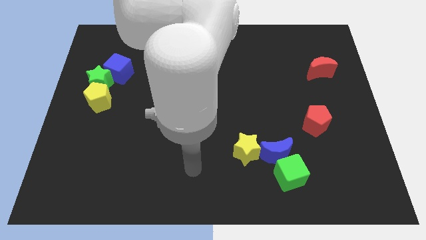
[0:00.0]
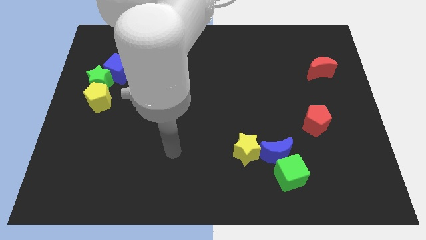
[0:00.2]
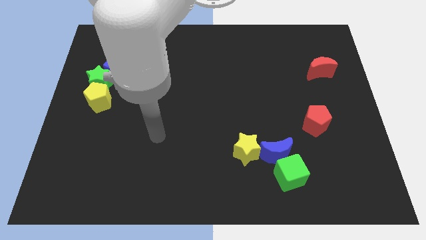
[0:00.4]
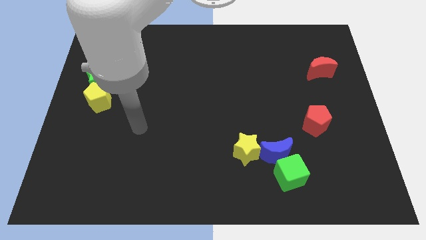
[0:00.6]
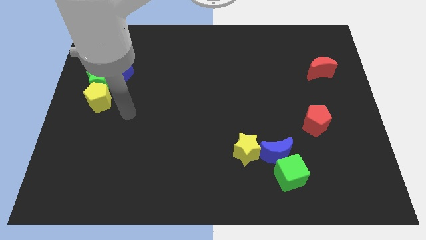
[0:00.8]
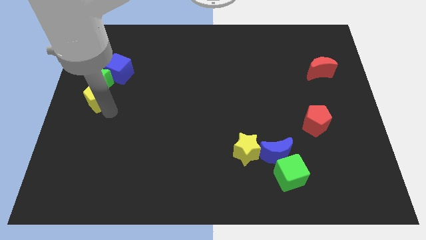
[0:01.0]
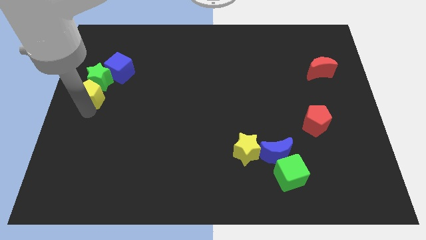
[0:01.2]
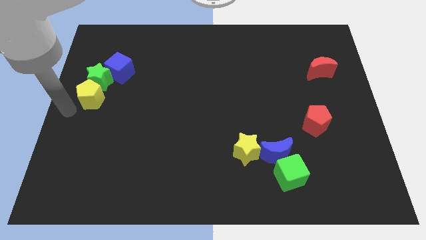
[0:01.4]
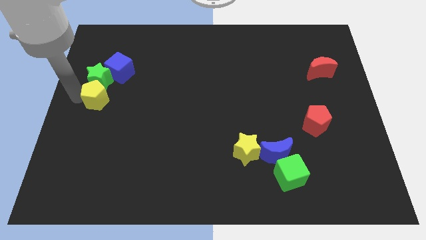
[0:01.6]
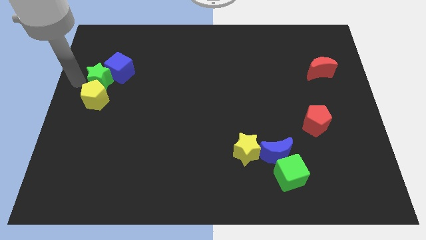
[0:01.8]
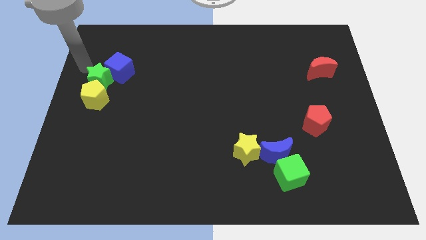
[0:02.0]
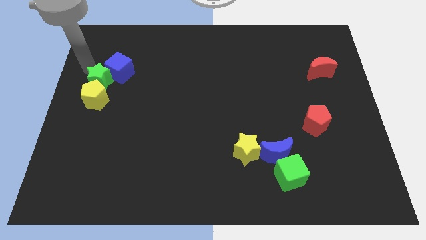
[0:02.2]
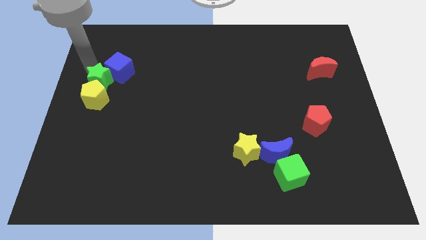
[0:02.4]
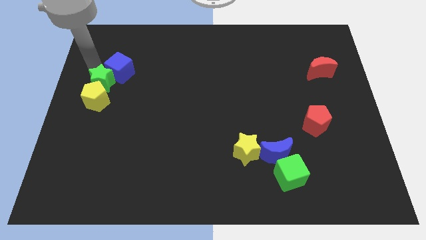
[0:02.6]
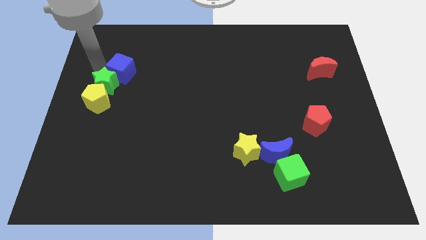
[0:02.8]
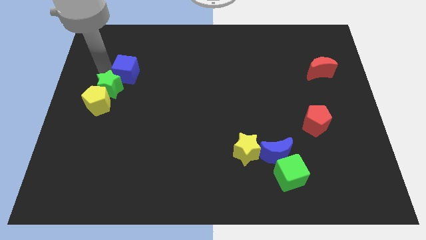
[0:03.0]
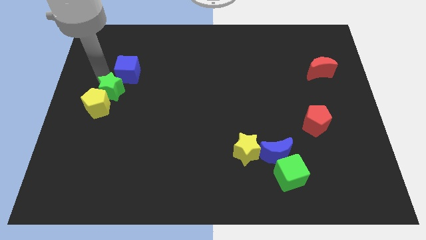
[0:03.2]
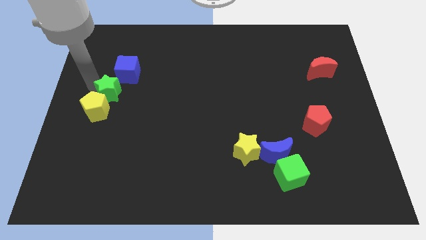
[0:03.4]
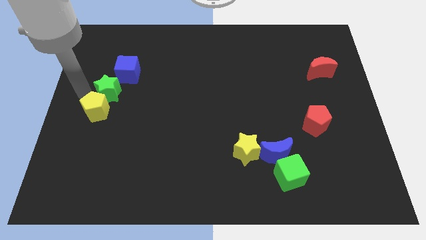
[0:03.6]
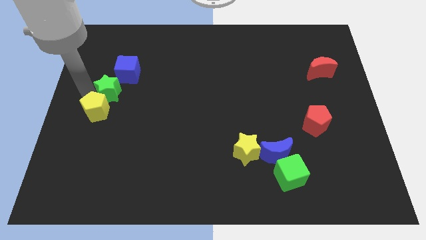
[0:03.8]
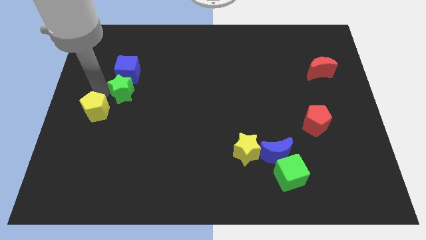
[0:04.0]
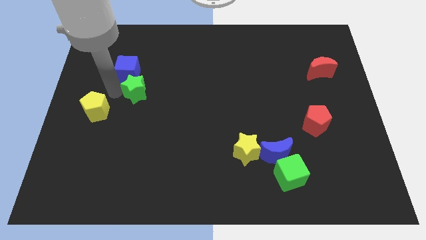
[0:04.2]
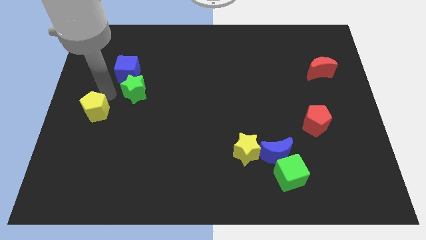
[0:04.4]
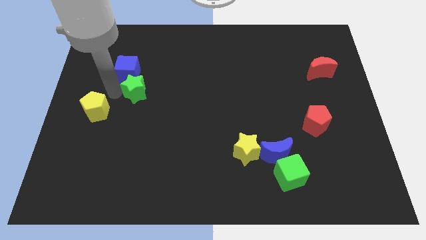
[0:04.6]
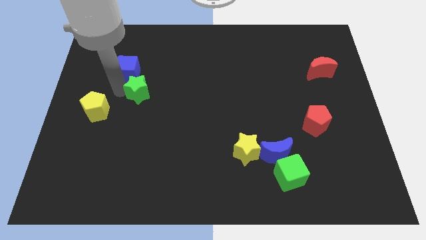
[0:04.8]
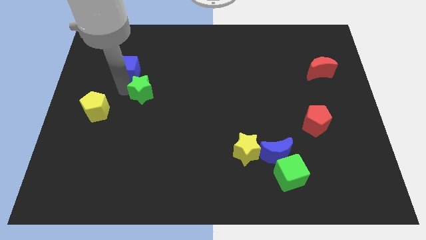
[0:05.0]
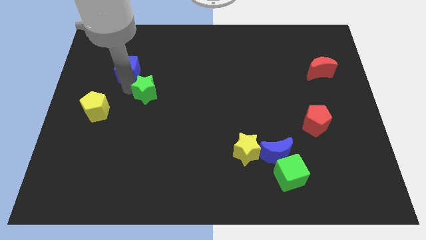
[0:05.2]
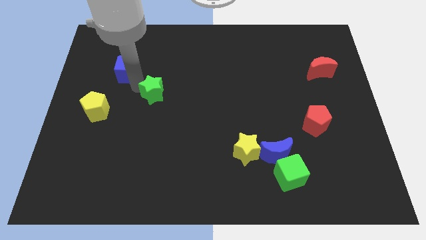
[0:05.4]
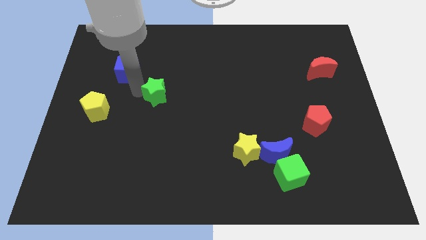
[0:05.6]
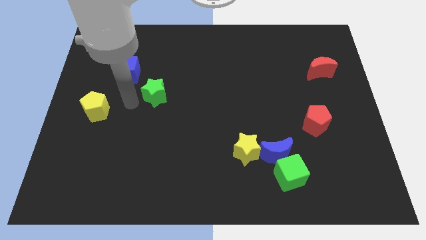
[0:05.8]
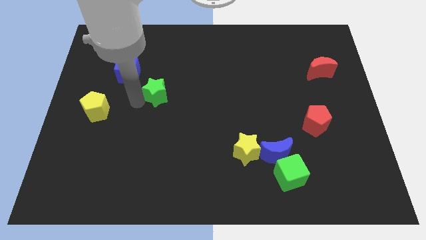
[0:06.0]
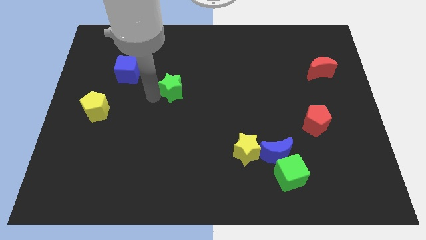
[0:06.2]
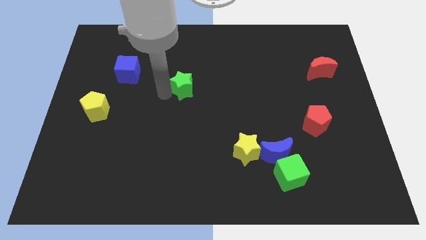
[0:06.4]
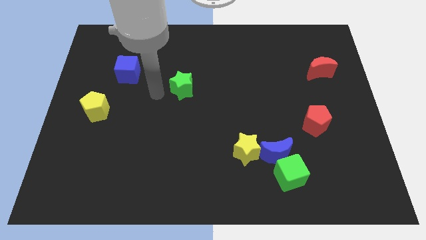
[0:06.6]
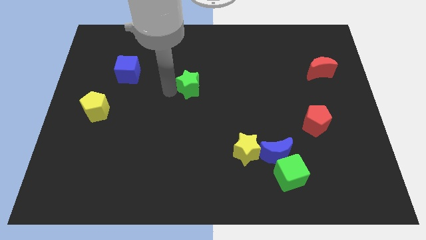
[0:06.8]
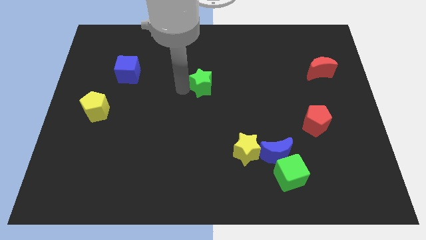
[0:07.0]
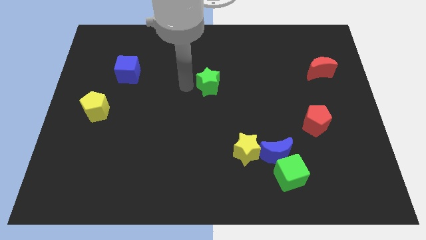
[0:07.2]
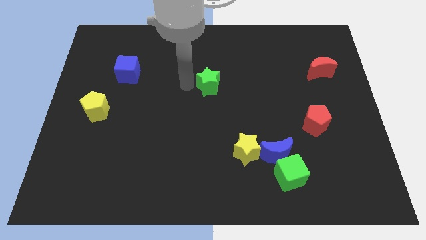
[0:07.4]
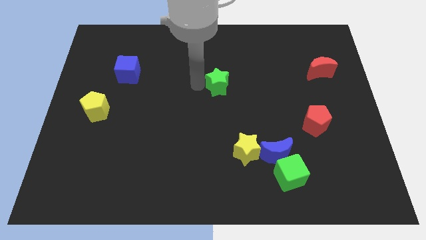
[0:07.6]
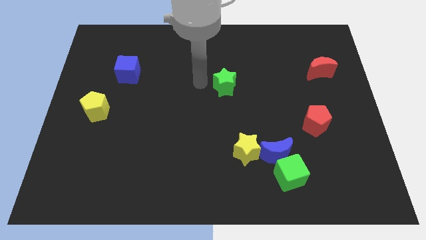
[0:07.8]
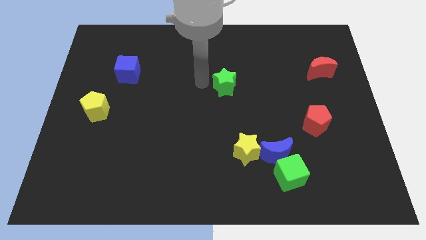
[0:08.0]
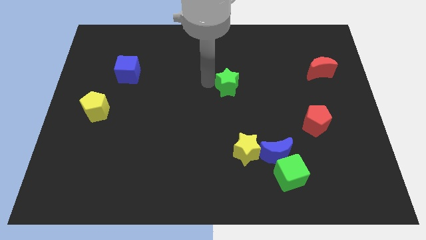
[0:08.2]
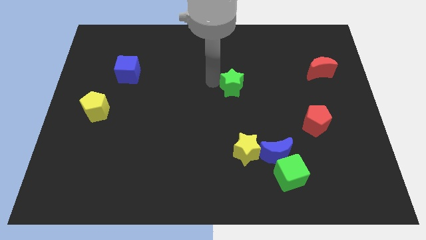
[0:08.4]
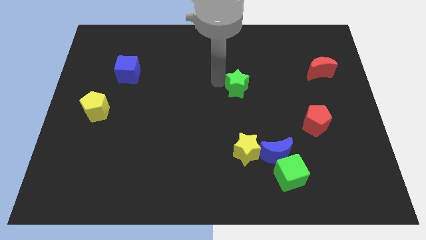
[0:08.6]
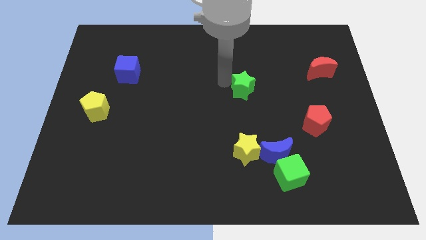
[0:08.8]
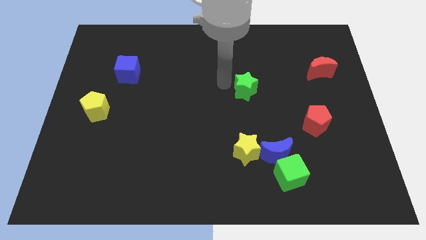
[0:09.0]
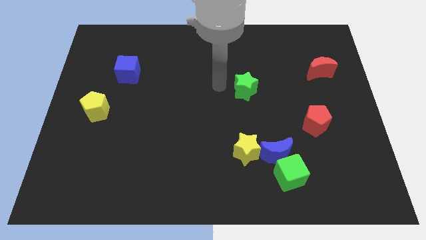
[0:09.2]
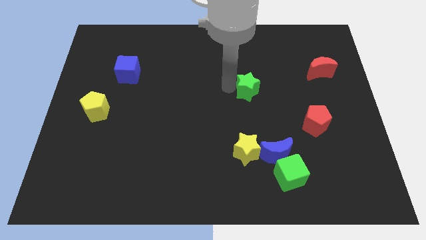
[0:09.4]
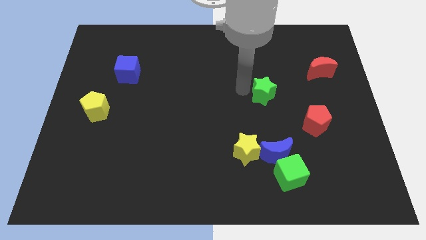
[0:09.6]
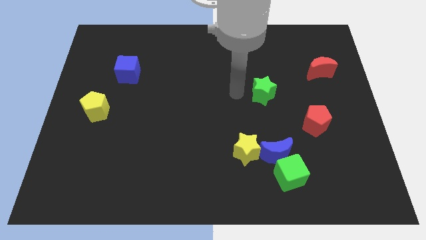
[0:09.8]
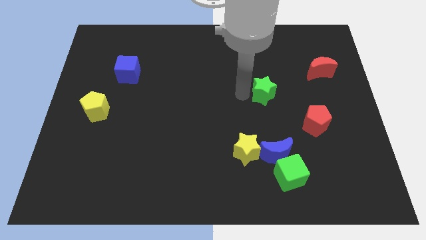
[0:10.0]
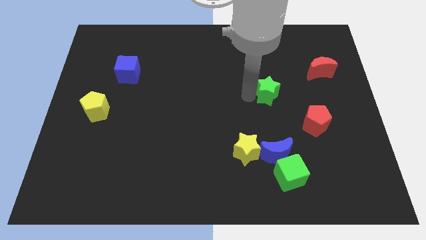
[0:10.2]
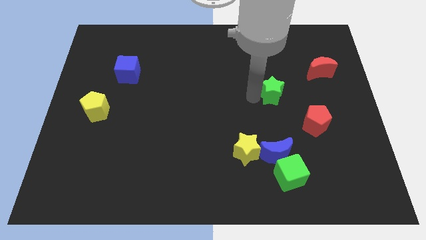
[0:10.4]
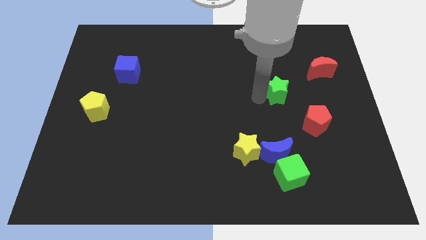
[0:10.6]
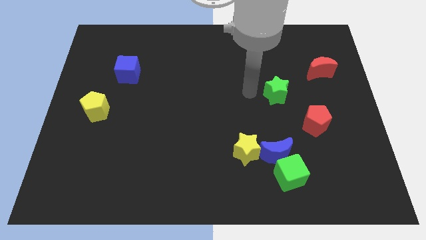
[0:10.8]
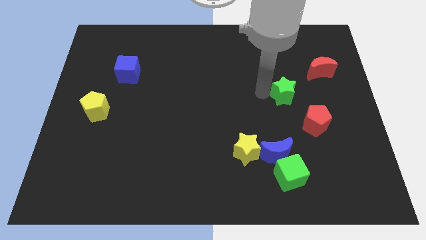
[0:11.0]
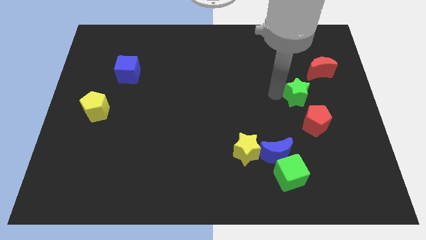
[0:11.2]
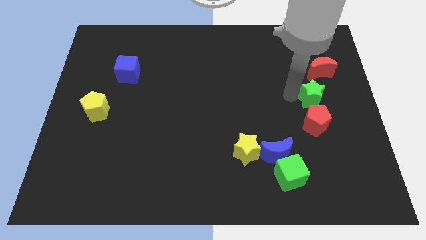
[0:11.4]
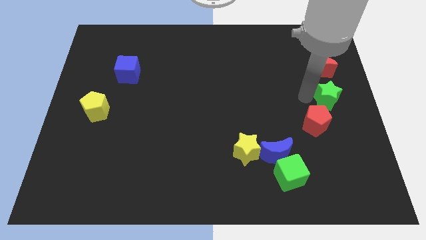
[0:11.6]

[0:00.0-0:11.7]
put the green star to the right side

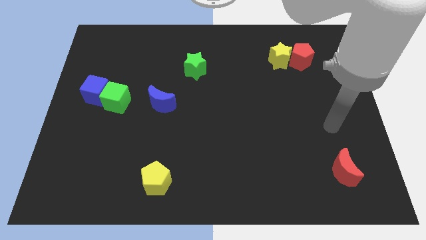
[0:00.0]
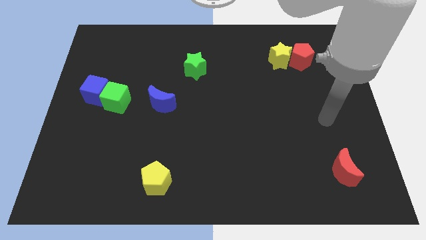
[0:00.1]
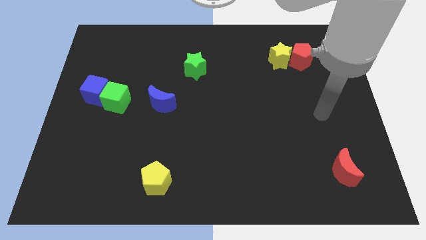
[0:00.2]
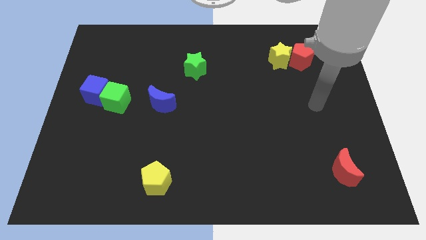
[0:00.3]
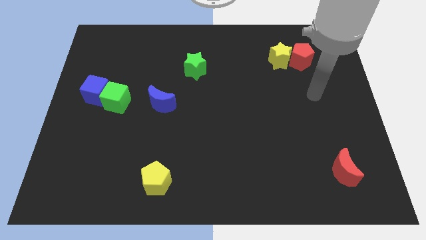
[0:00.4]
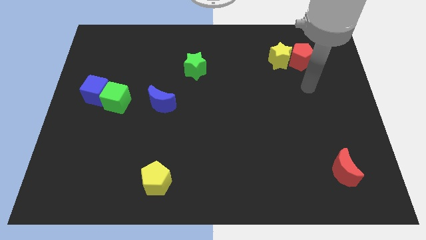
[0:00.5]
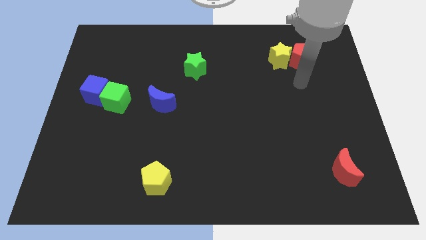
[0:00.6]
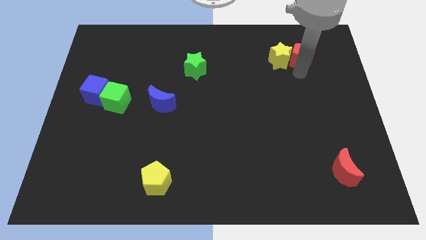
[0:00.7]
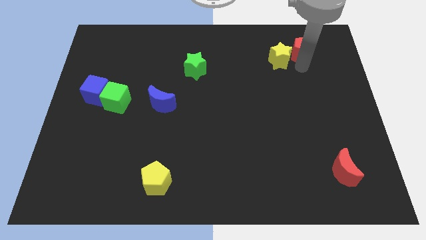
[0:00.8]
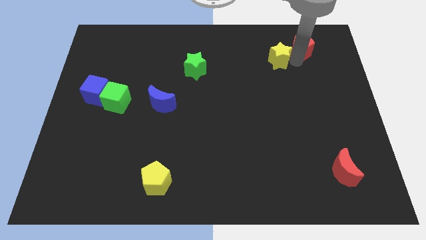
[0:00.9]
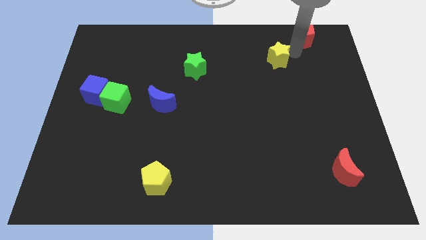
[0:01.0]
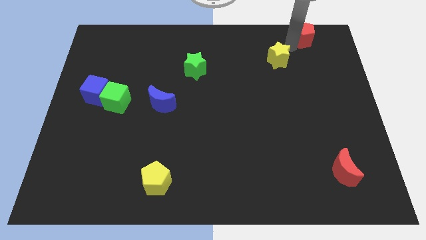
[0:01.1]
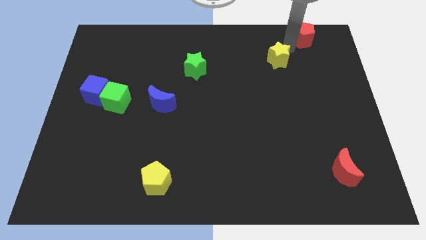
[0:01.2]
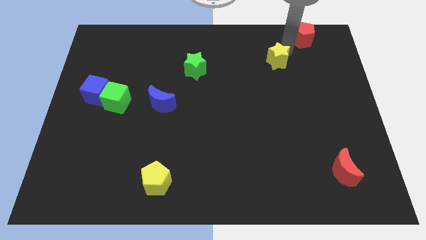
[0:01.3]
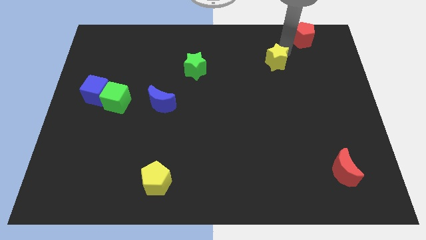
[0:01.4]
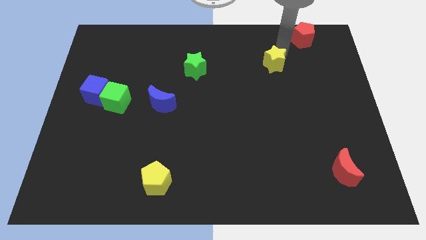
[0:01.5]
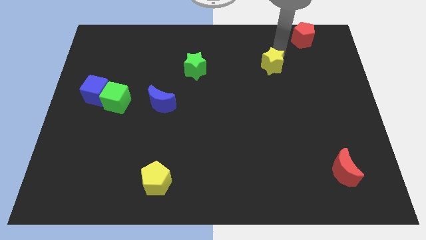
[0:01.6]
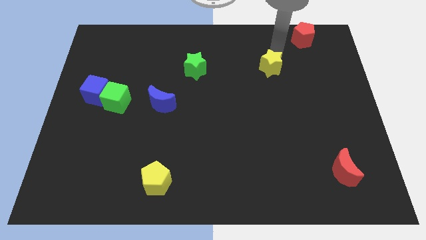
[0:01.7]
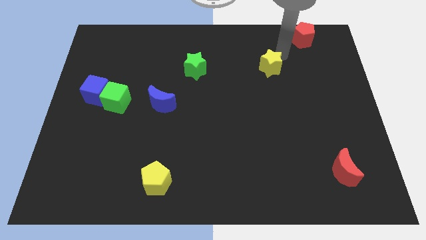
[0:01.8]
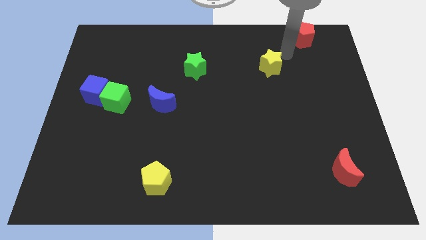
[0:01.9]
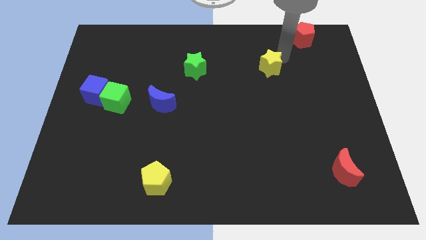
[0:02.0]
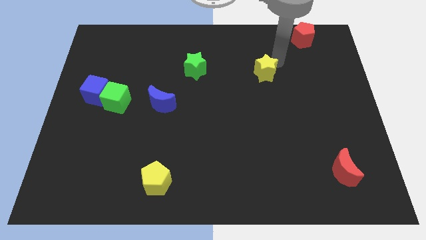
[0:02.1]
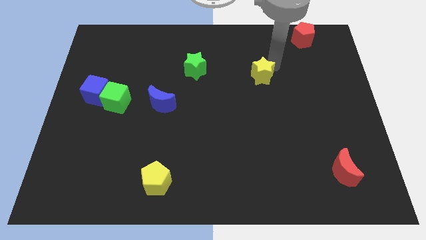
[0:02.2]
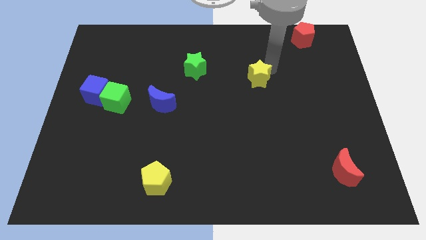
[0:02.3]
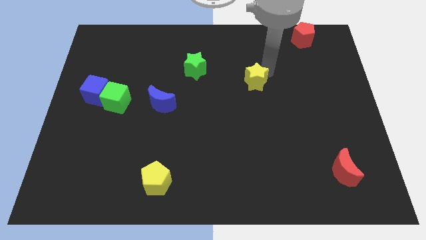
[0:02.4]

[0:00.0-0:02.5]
push the yellow star to the middle
